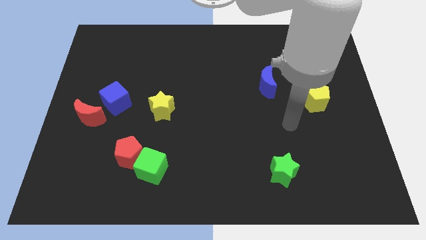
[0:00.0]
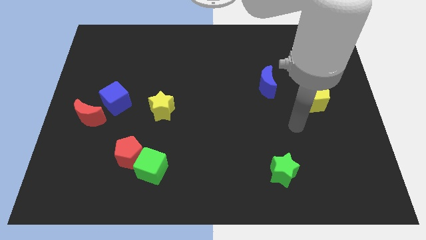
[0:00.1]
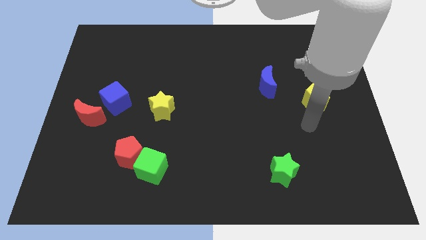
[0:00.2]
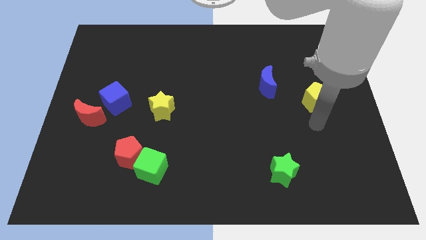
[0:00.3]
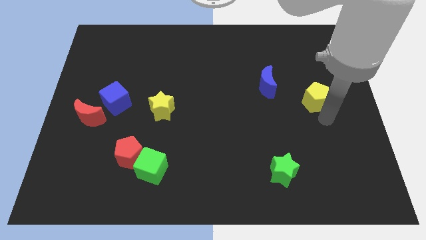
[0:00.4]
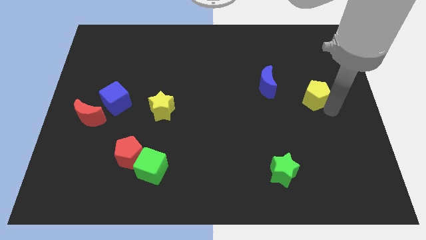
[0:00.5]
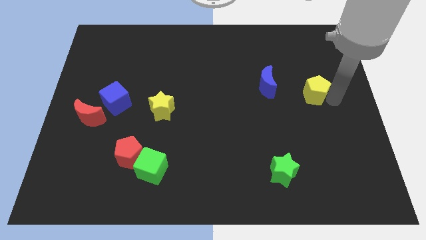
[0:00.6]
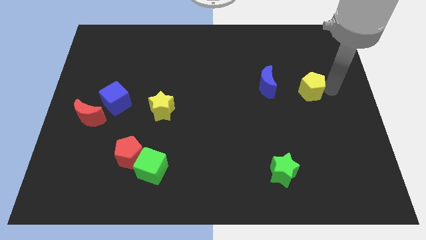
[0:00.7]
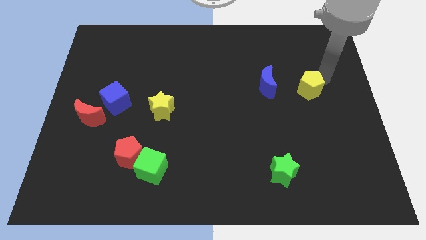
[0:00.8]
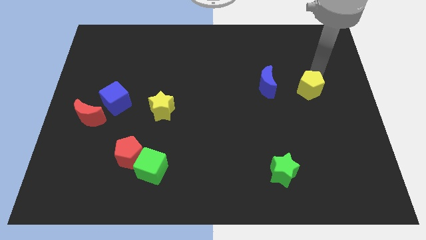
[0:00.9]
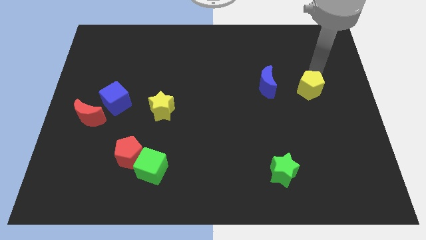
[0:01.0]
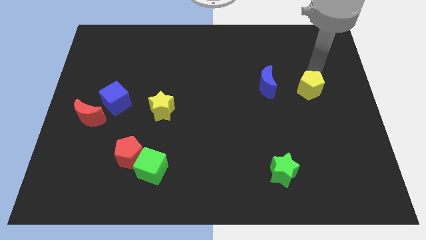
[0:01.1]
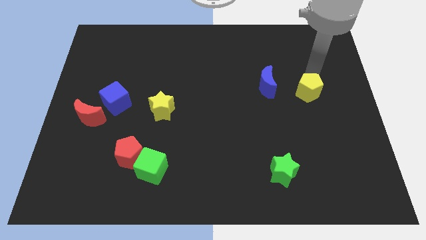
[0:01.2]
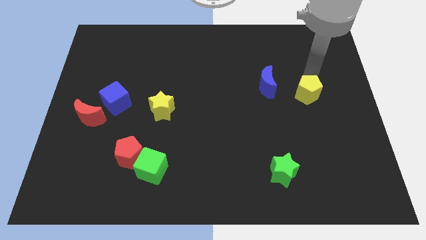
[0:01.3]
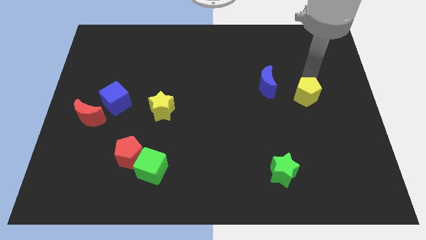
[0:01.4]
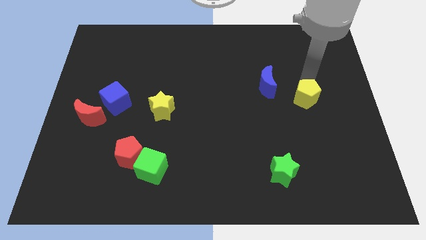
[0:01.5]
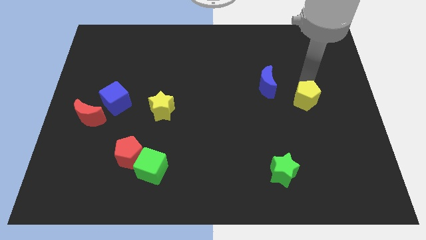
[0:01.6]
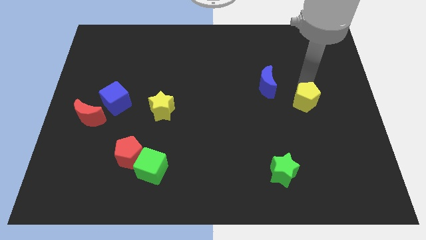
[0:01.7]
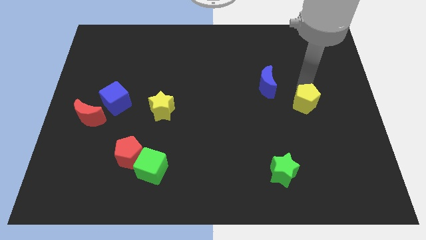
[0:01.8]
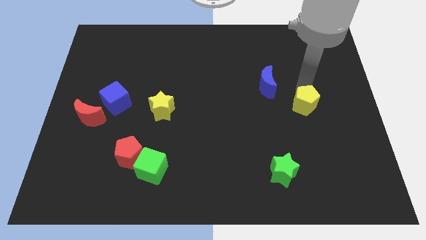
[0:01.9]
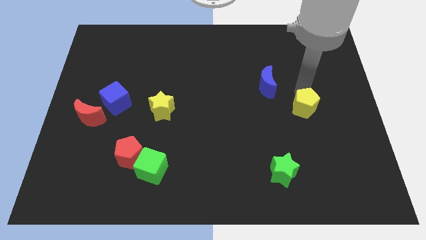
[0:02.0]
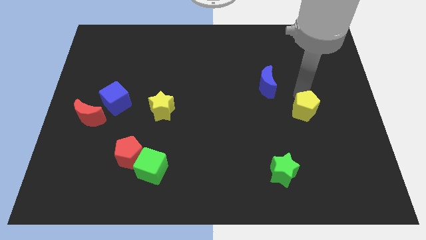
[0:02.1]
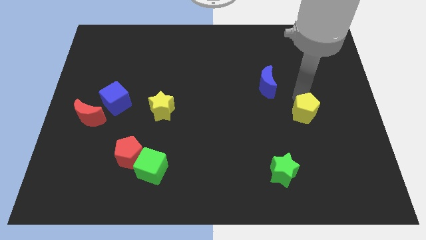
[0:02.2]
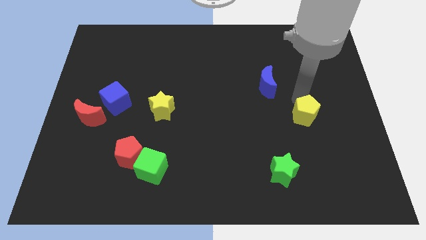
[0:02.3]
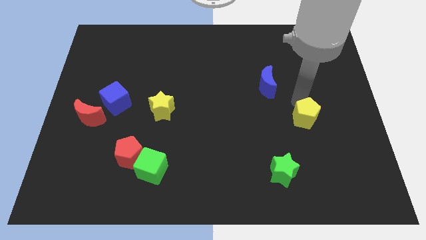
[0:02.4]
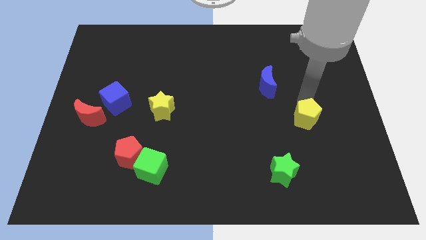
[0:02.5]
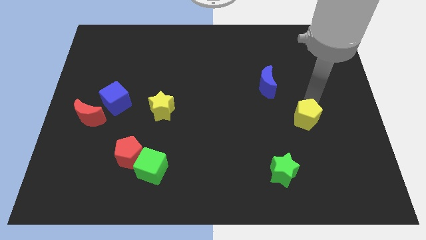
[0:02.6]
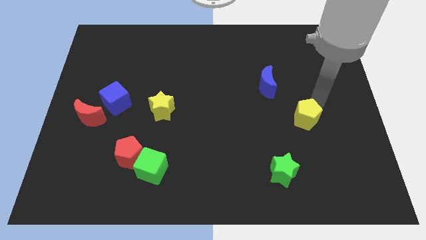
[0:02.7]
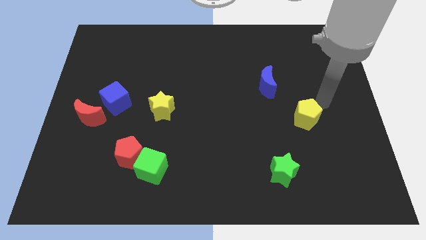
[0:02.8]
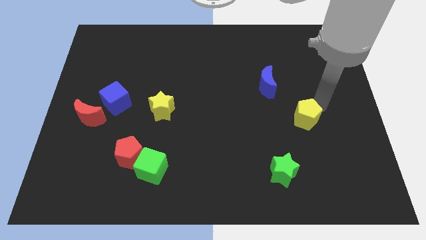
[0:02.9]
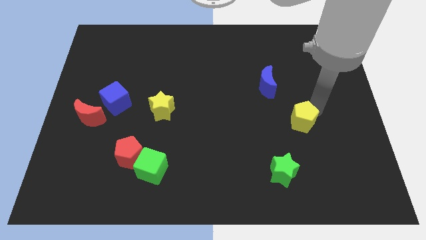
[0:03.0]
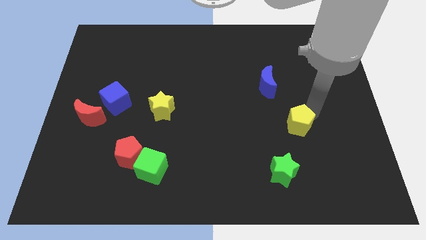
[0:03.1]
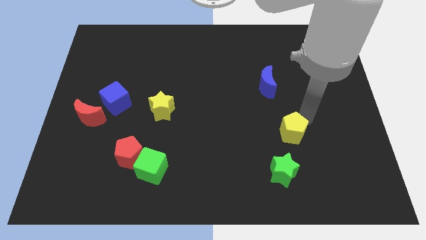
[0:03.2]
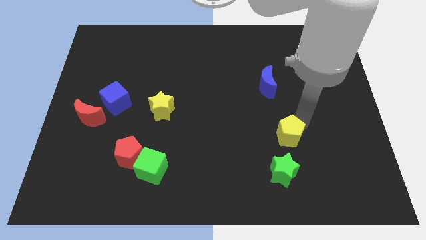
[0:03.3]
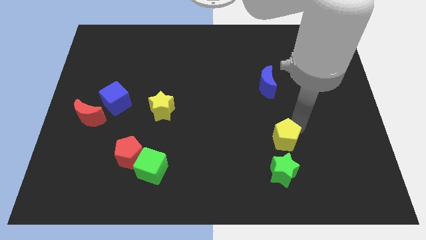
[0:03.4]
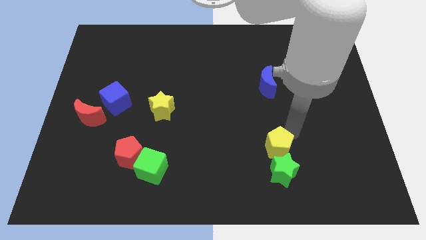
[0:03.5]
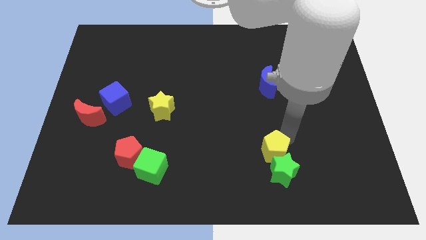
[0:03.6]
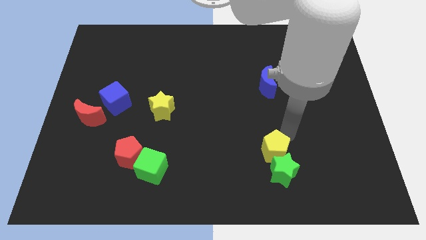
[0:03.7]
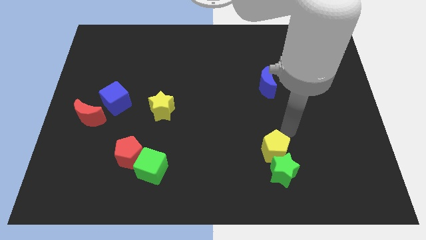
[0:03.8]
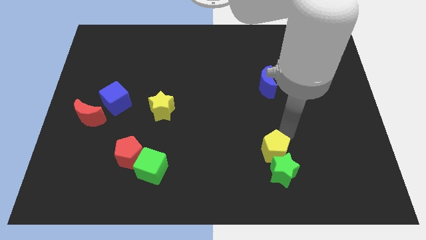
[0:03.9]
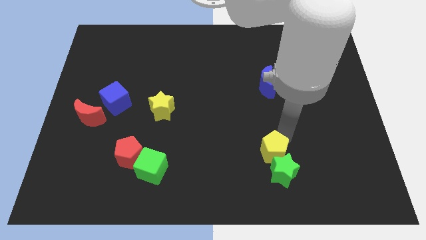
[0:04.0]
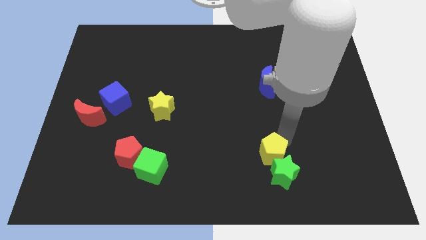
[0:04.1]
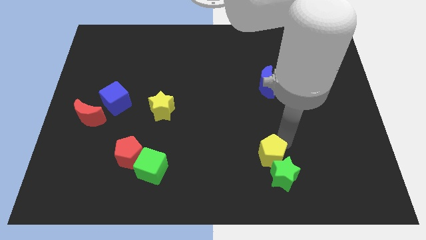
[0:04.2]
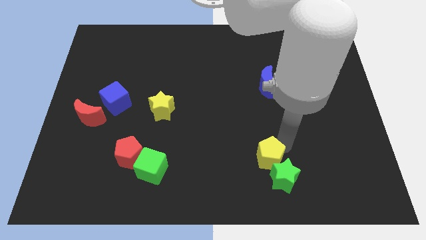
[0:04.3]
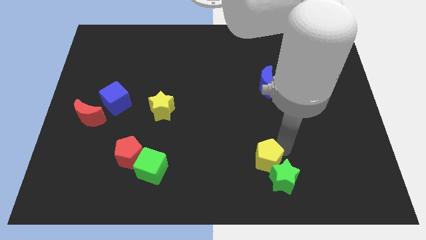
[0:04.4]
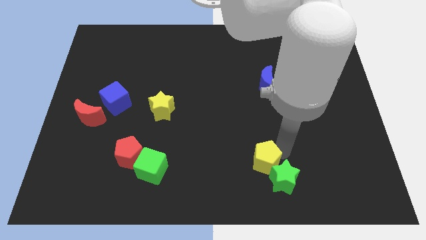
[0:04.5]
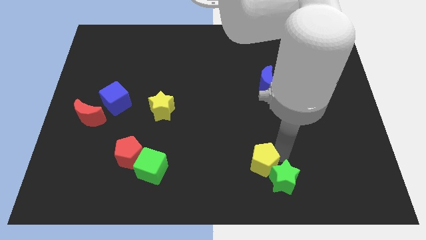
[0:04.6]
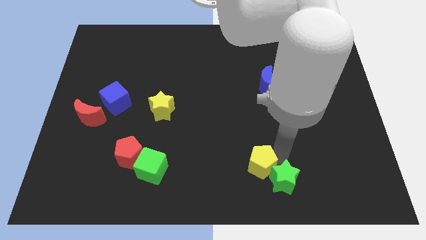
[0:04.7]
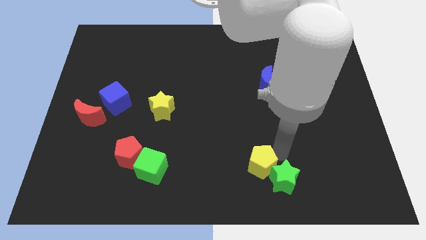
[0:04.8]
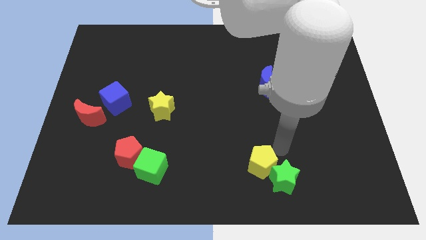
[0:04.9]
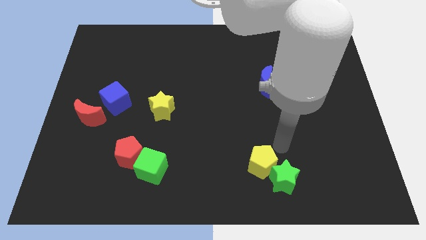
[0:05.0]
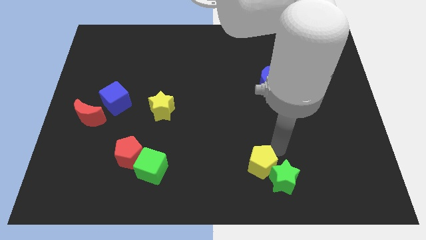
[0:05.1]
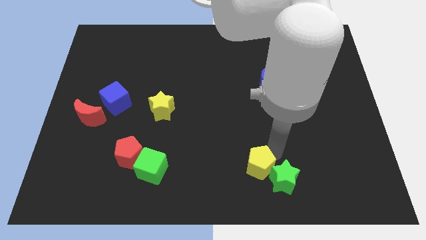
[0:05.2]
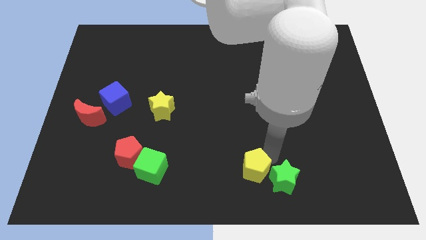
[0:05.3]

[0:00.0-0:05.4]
move the yellow pentagon to the bottom
